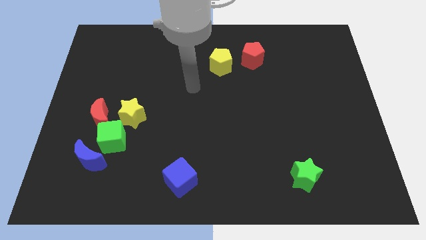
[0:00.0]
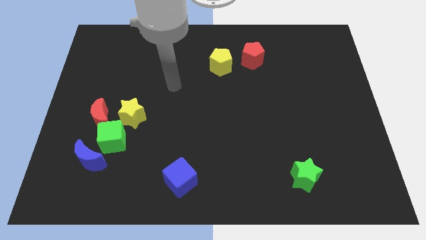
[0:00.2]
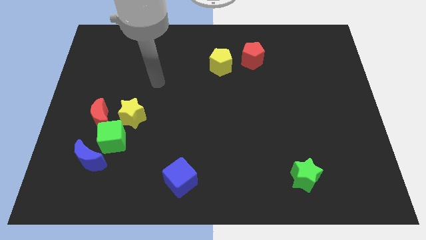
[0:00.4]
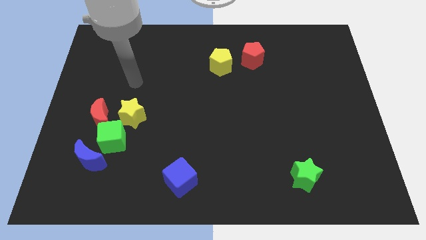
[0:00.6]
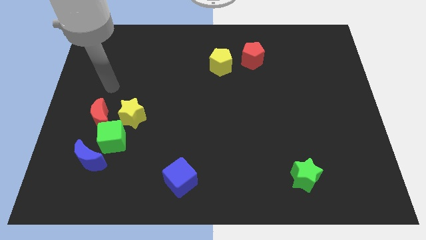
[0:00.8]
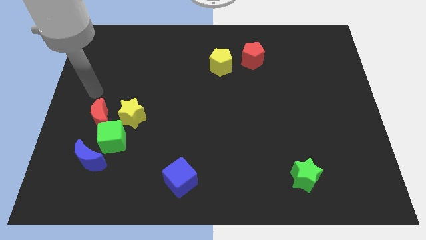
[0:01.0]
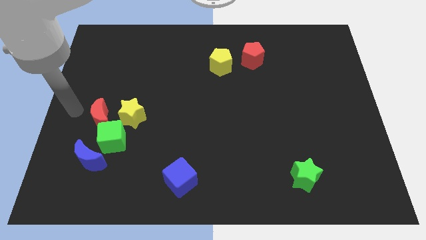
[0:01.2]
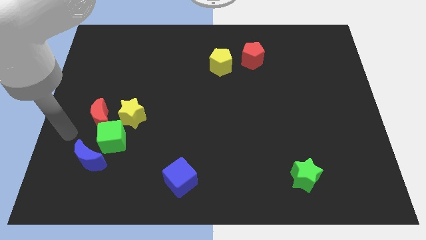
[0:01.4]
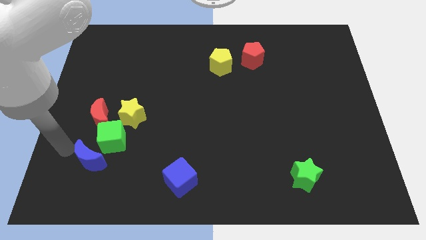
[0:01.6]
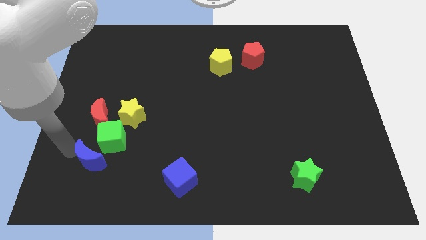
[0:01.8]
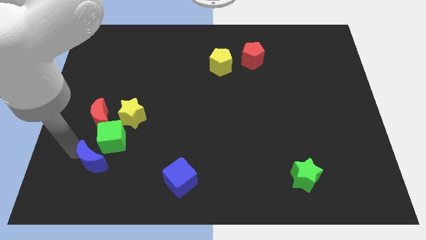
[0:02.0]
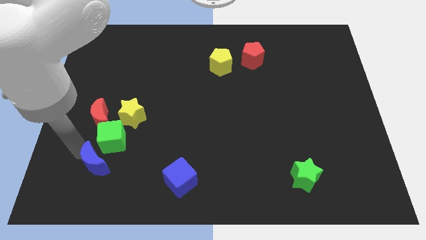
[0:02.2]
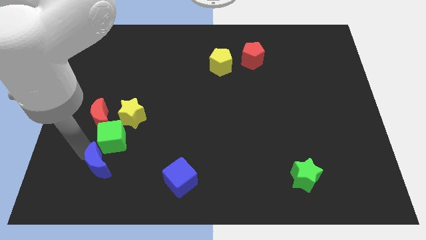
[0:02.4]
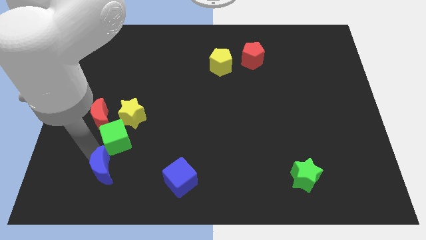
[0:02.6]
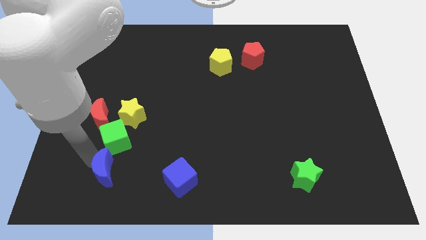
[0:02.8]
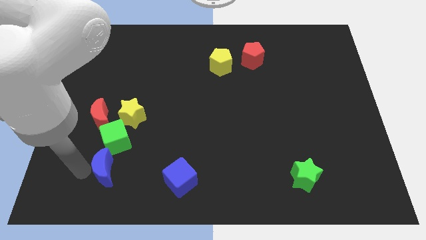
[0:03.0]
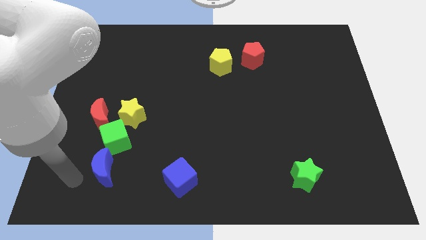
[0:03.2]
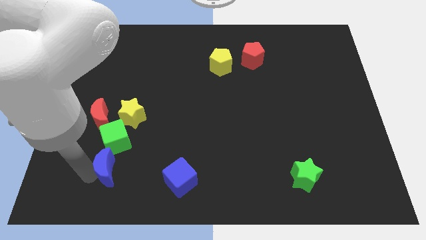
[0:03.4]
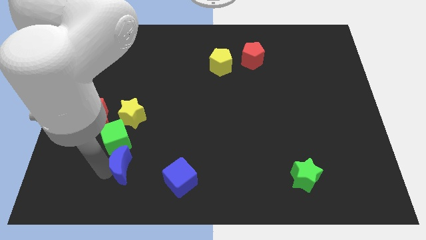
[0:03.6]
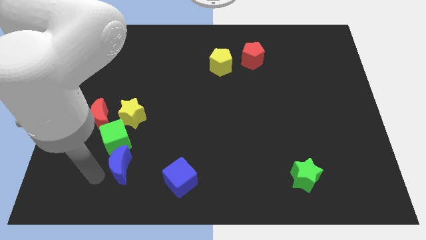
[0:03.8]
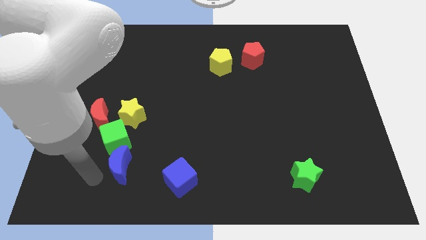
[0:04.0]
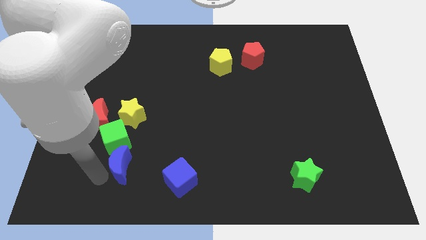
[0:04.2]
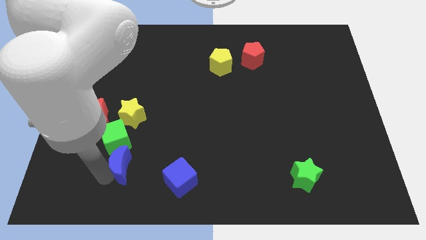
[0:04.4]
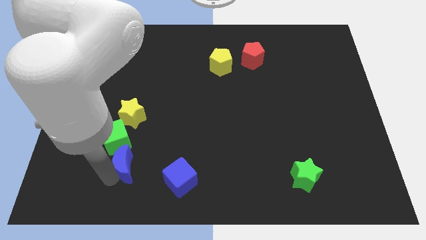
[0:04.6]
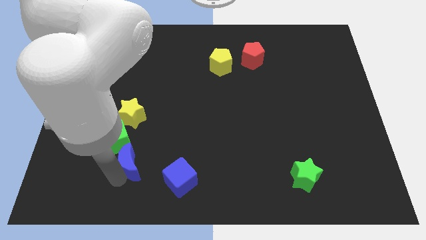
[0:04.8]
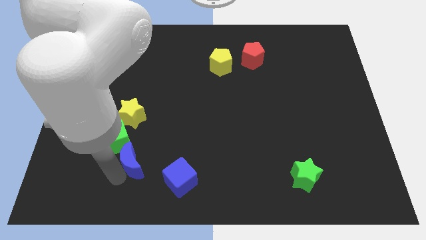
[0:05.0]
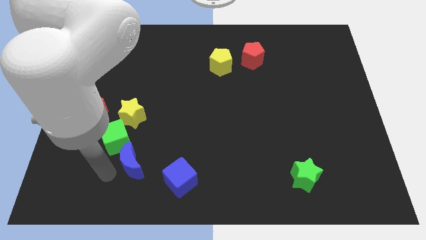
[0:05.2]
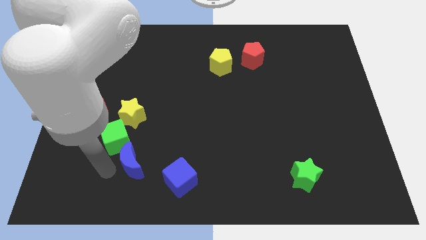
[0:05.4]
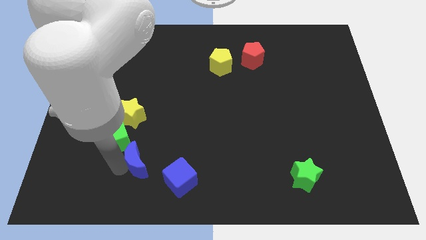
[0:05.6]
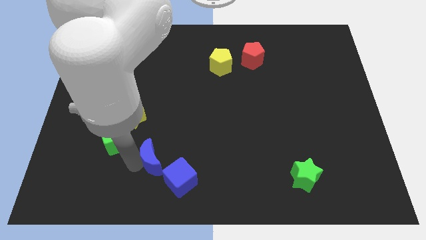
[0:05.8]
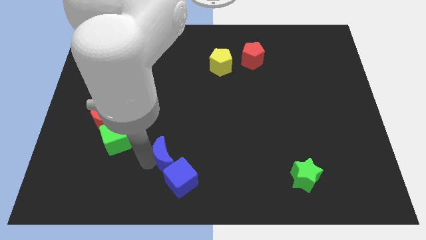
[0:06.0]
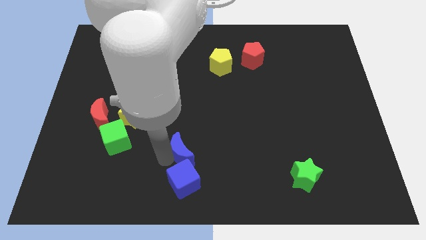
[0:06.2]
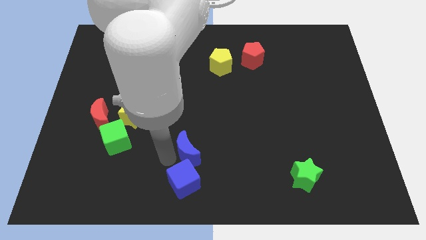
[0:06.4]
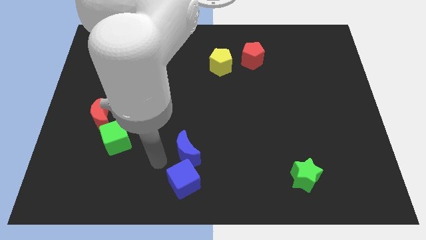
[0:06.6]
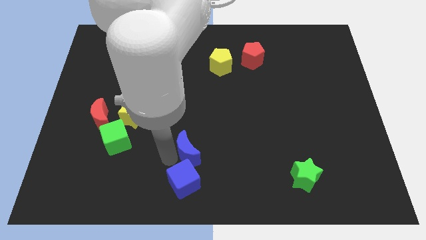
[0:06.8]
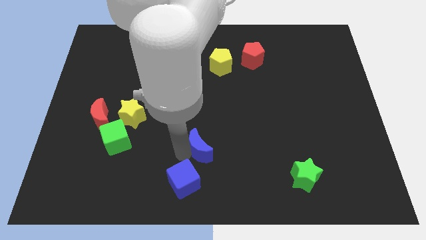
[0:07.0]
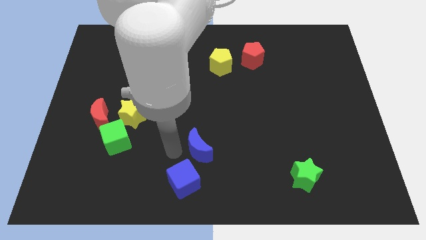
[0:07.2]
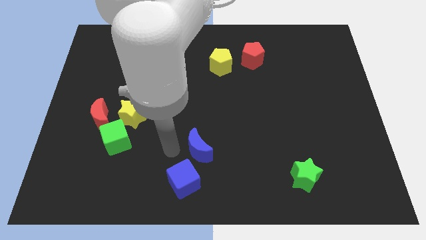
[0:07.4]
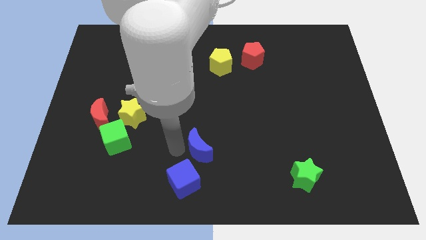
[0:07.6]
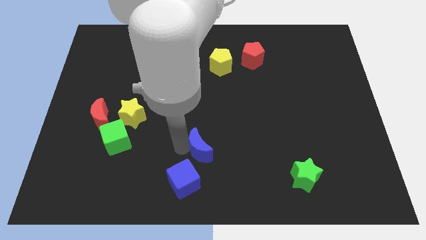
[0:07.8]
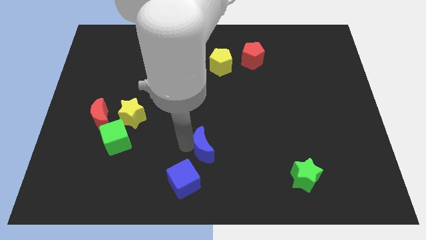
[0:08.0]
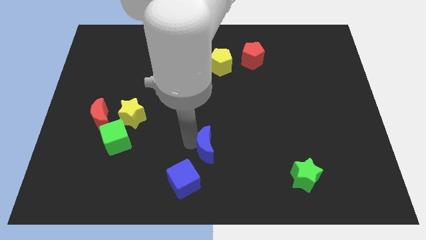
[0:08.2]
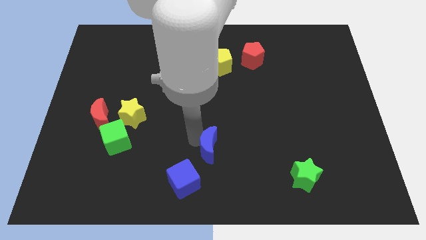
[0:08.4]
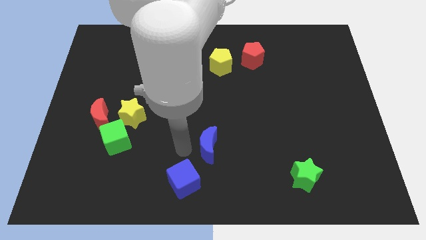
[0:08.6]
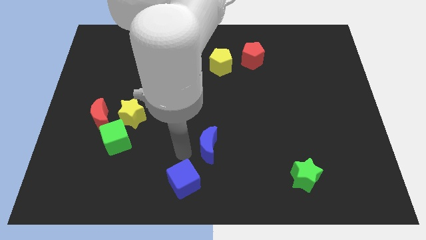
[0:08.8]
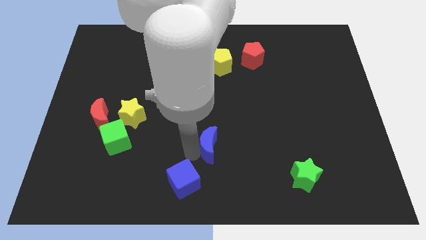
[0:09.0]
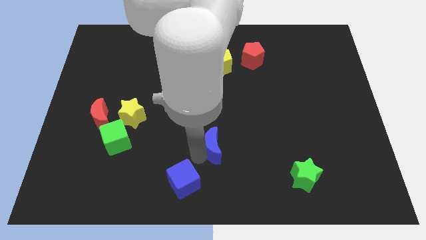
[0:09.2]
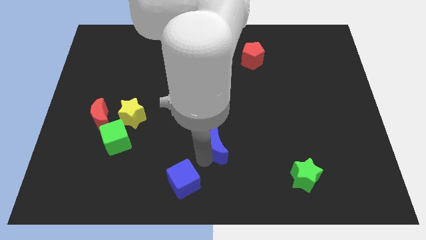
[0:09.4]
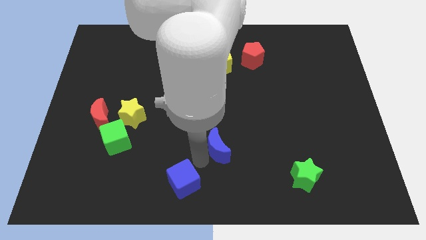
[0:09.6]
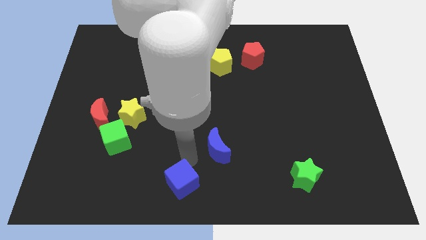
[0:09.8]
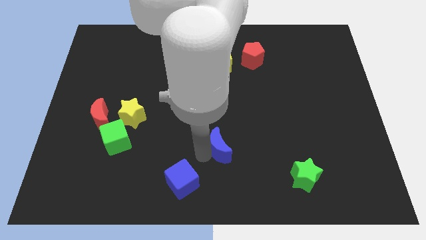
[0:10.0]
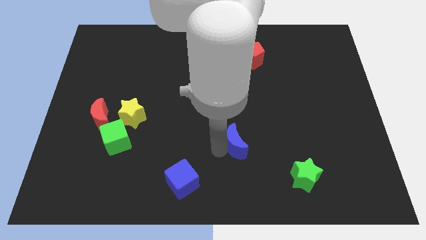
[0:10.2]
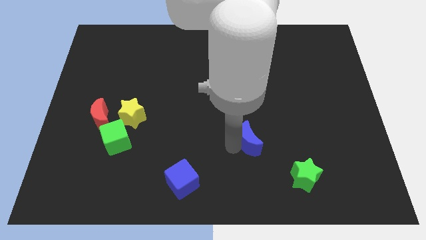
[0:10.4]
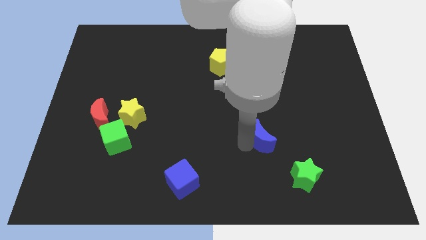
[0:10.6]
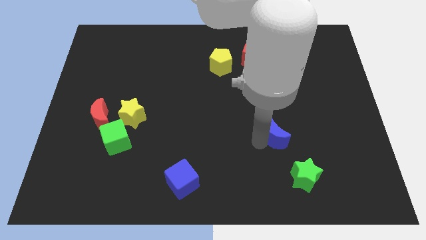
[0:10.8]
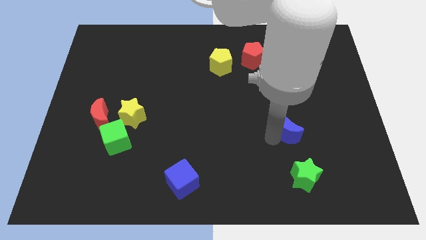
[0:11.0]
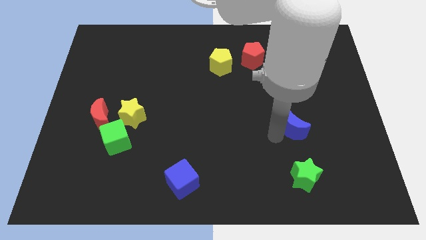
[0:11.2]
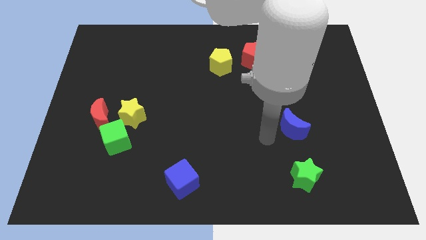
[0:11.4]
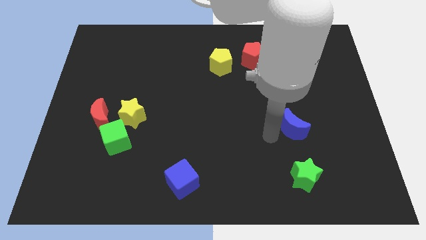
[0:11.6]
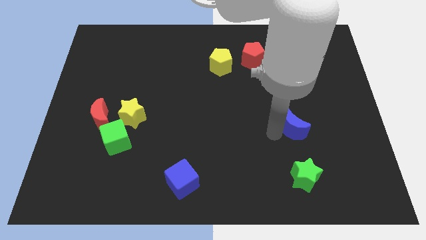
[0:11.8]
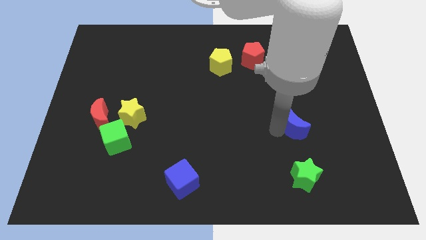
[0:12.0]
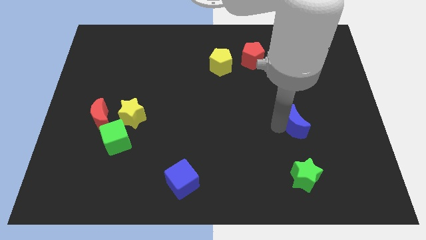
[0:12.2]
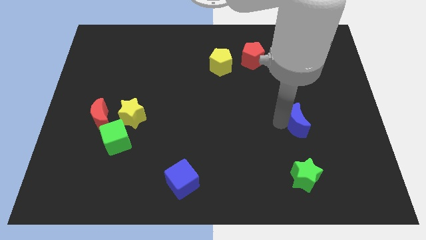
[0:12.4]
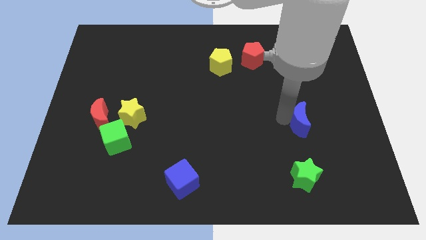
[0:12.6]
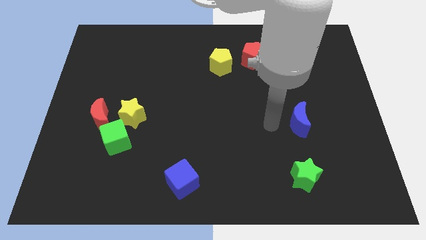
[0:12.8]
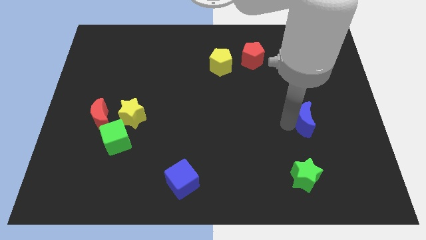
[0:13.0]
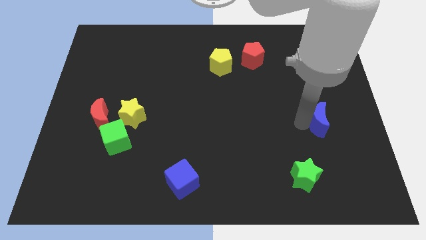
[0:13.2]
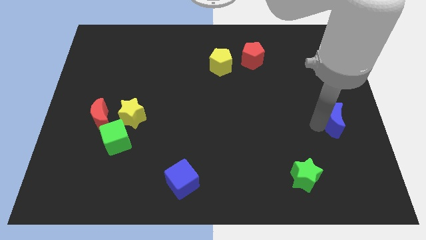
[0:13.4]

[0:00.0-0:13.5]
push the blue moon to the right side

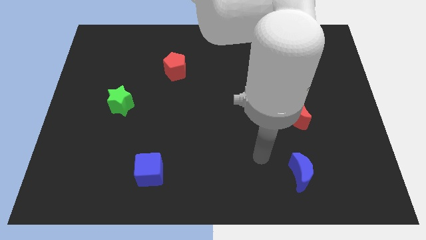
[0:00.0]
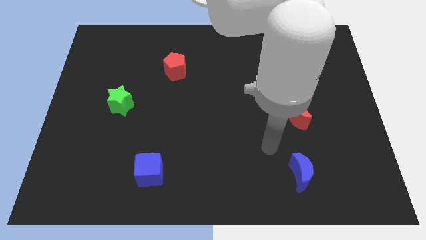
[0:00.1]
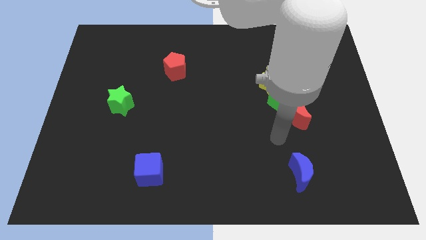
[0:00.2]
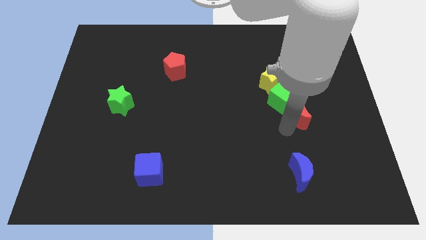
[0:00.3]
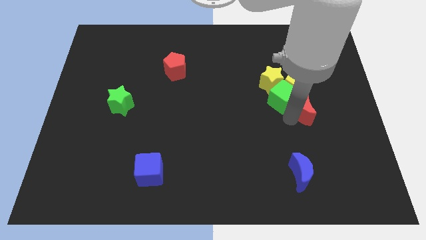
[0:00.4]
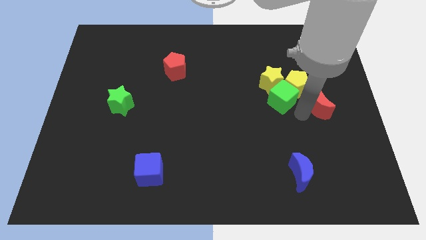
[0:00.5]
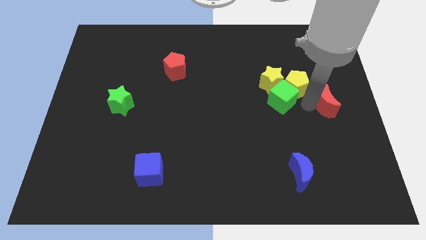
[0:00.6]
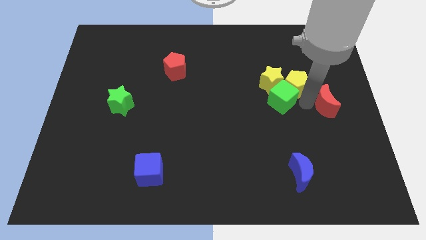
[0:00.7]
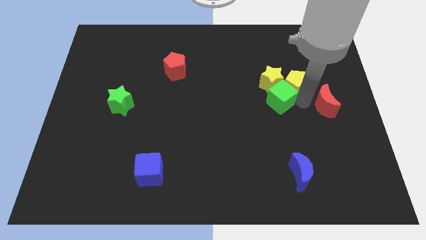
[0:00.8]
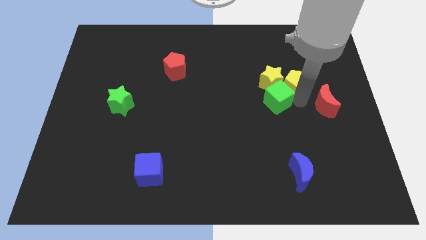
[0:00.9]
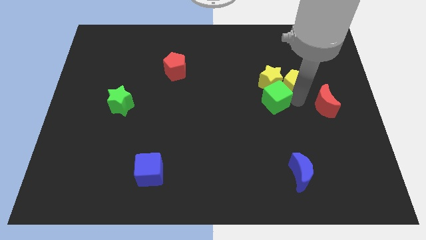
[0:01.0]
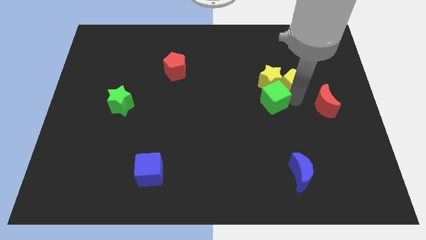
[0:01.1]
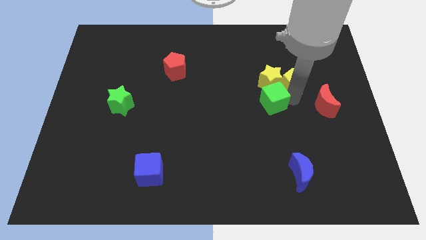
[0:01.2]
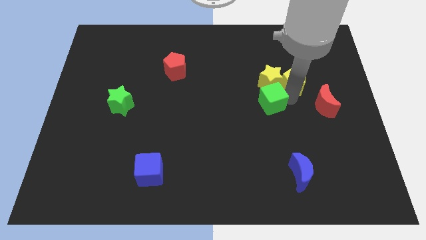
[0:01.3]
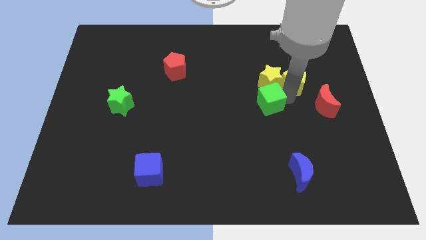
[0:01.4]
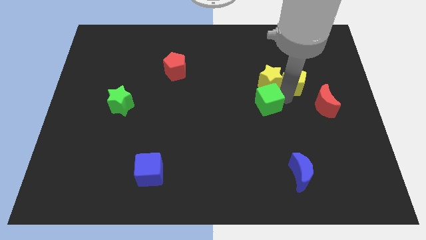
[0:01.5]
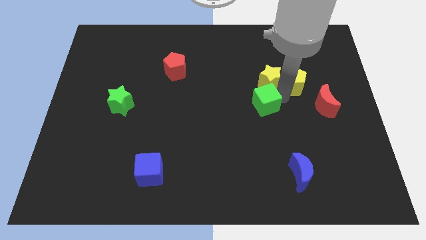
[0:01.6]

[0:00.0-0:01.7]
put the green cube to the center of the board
